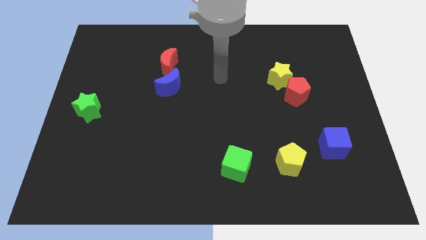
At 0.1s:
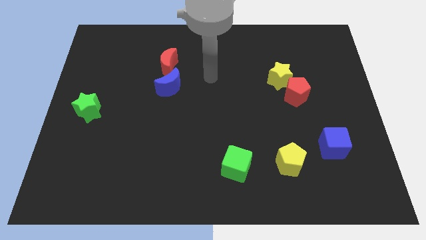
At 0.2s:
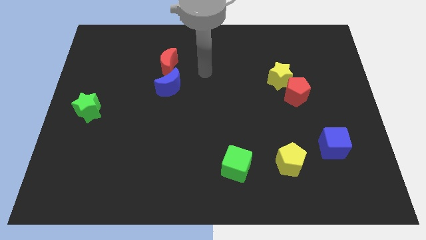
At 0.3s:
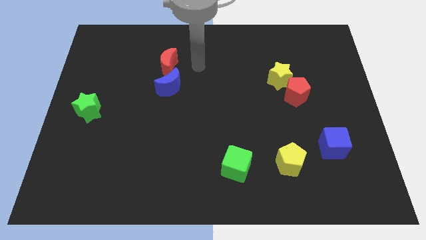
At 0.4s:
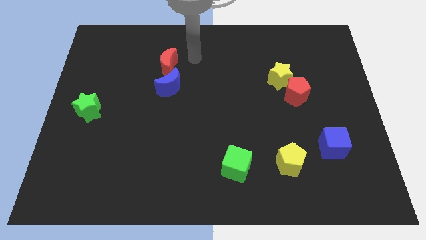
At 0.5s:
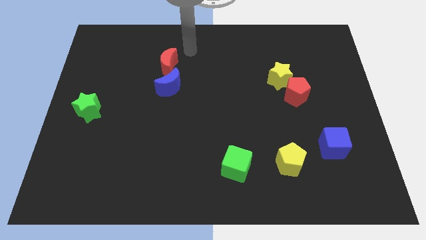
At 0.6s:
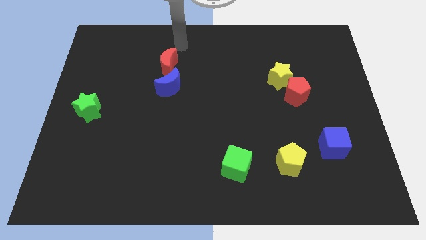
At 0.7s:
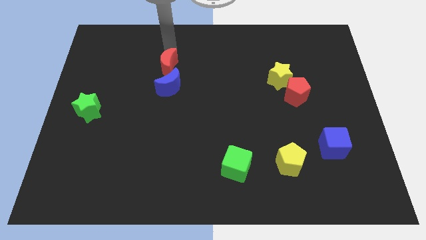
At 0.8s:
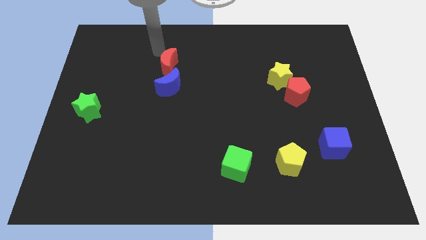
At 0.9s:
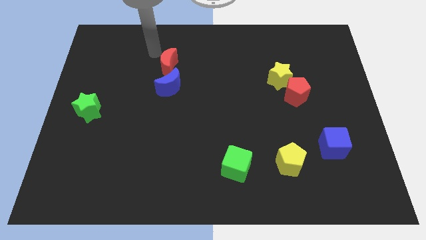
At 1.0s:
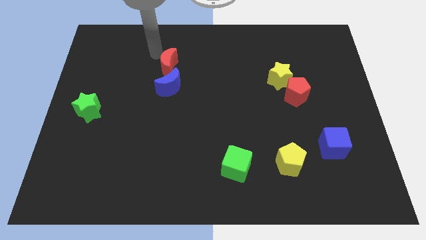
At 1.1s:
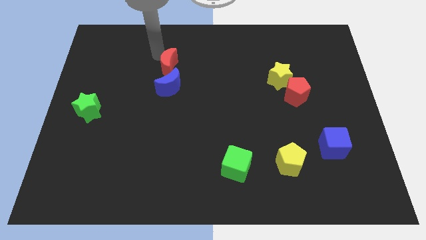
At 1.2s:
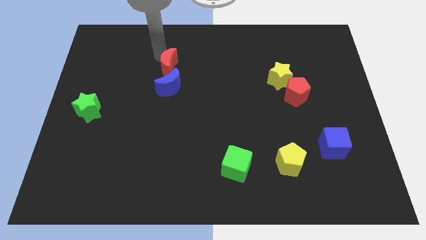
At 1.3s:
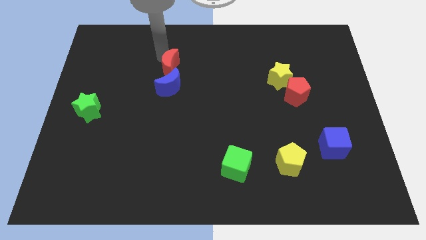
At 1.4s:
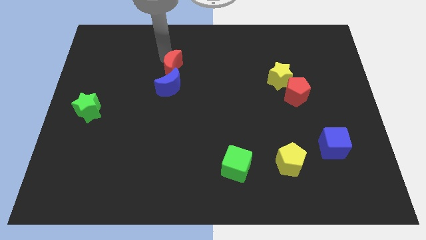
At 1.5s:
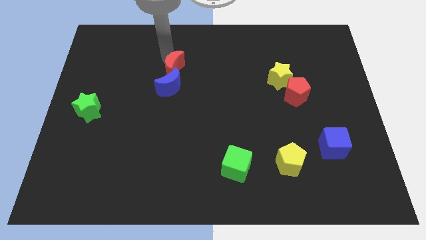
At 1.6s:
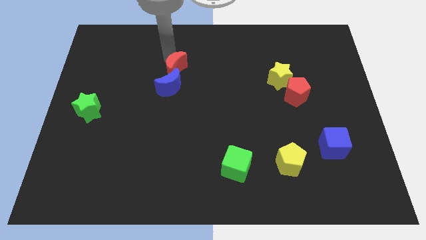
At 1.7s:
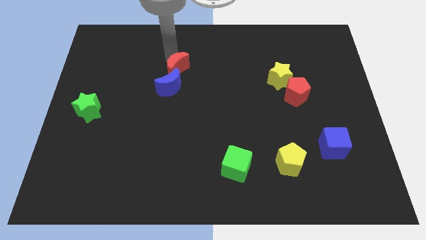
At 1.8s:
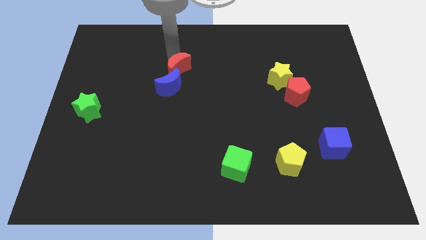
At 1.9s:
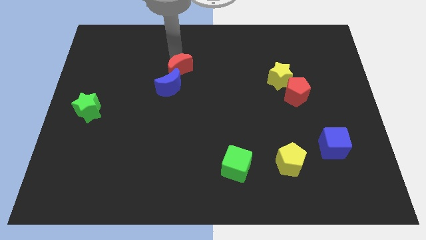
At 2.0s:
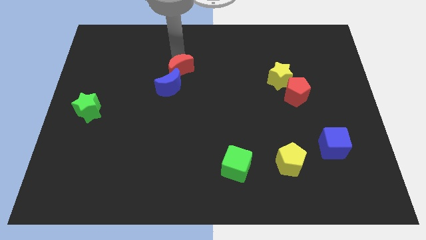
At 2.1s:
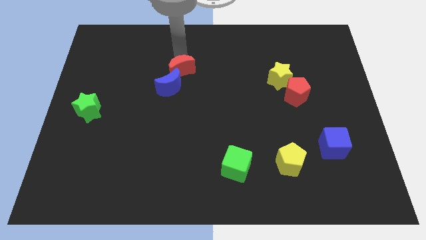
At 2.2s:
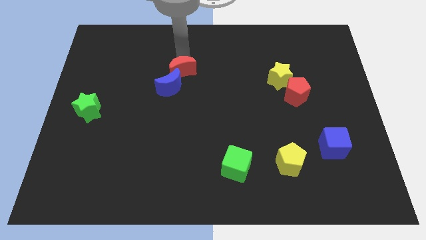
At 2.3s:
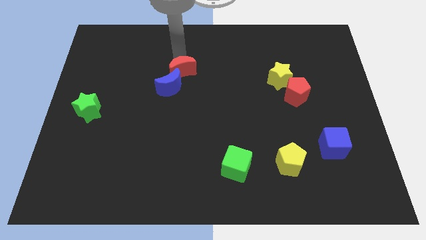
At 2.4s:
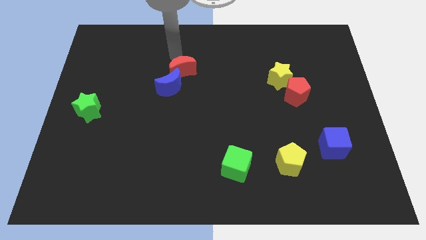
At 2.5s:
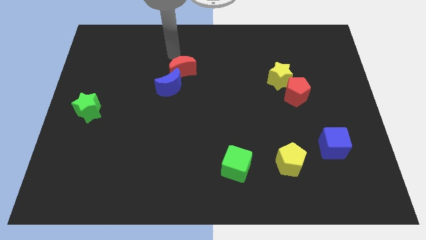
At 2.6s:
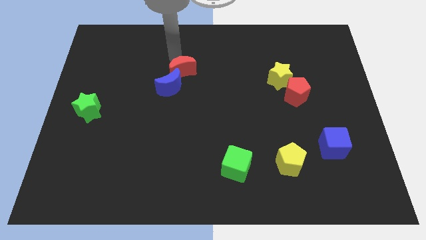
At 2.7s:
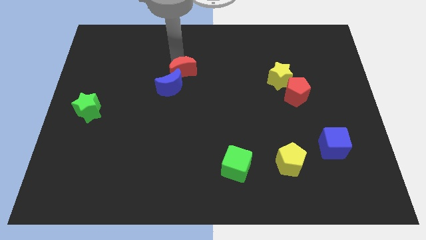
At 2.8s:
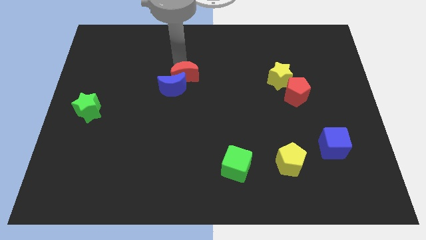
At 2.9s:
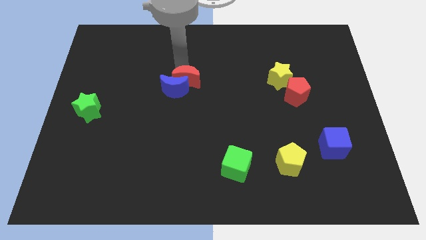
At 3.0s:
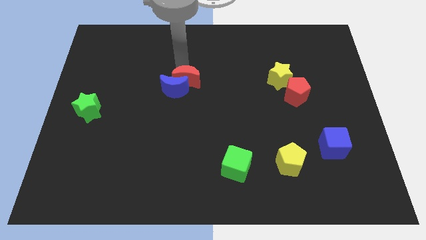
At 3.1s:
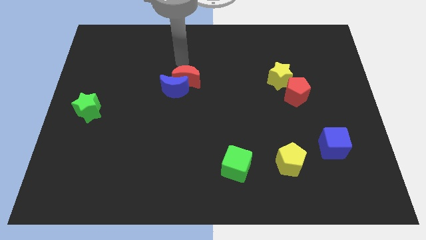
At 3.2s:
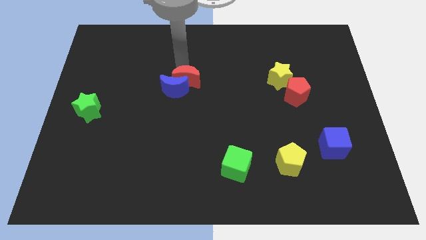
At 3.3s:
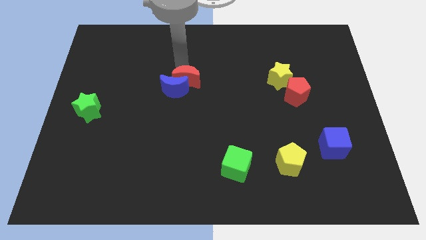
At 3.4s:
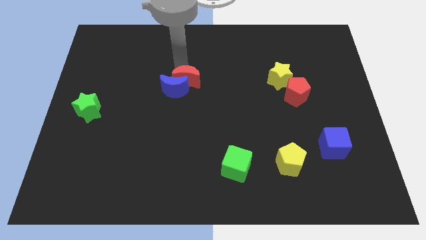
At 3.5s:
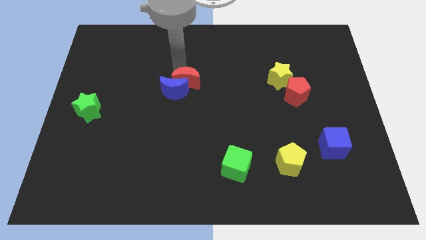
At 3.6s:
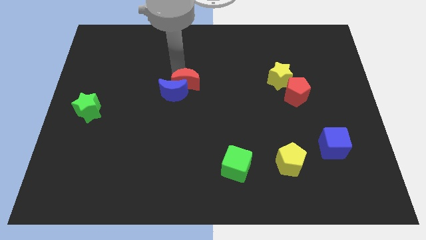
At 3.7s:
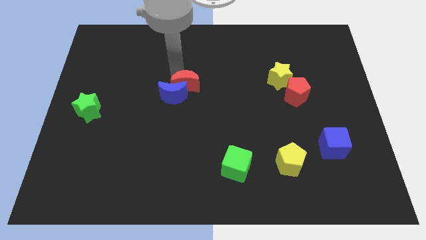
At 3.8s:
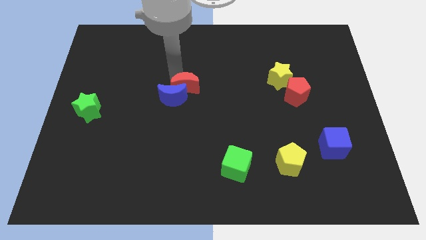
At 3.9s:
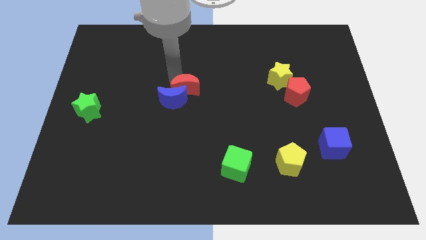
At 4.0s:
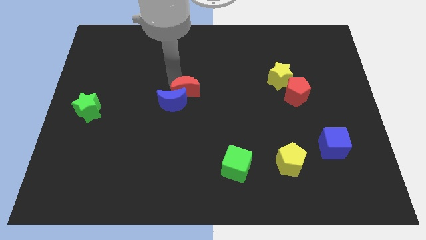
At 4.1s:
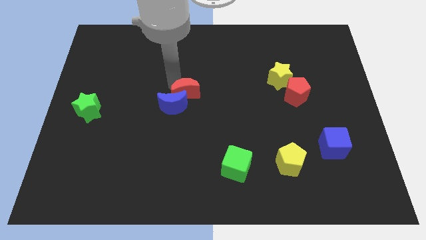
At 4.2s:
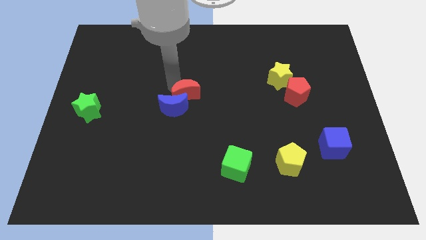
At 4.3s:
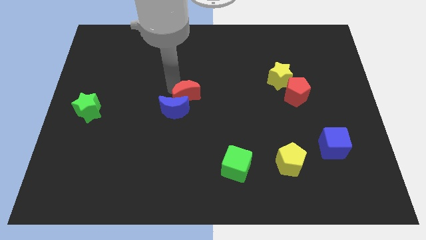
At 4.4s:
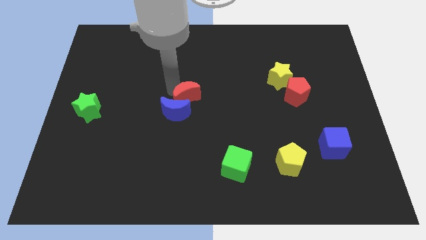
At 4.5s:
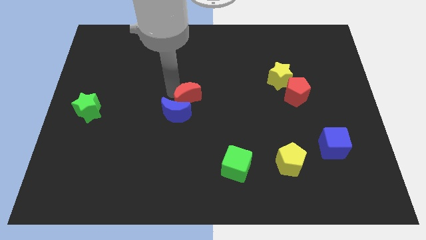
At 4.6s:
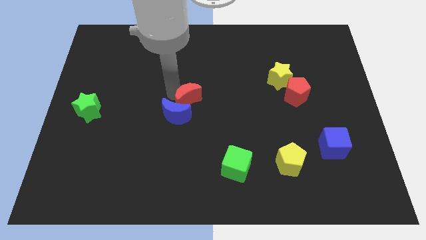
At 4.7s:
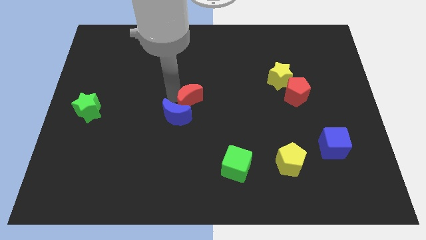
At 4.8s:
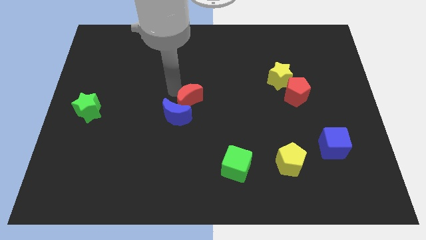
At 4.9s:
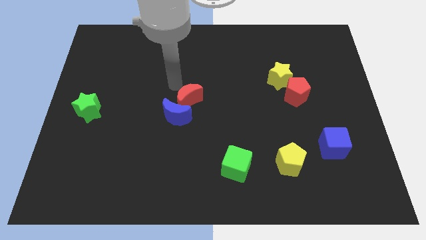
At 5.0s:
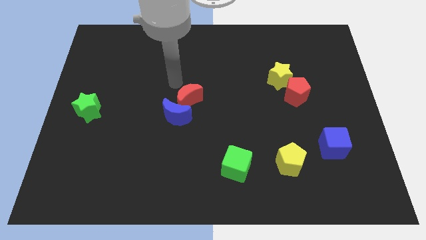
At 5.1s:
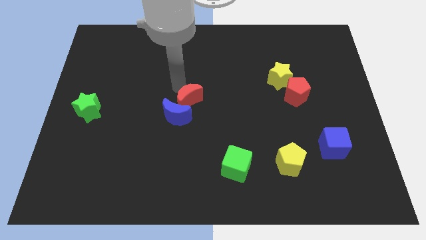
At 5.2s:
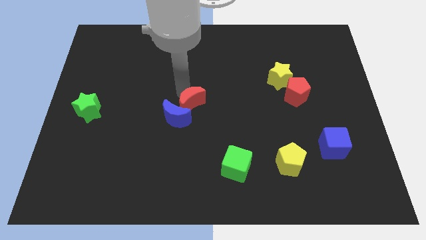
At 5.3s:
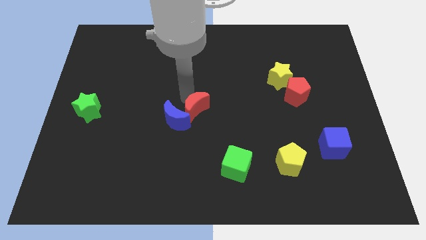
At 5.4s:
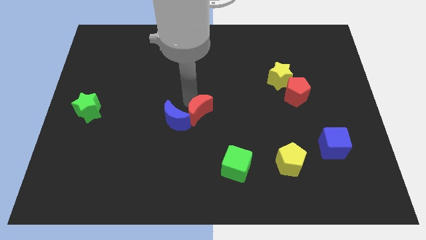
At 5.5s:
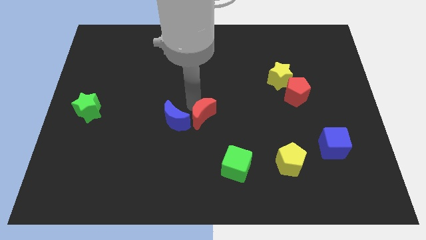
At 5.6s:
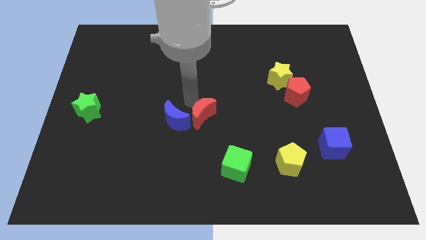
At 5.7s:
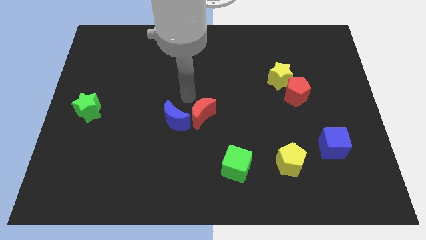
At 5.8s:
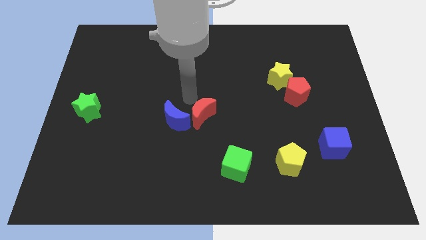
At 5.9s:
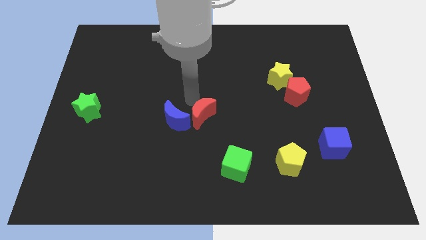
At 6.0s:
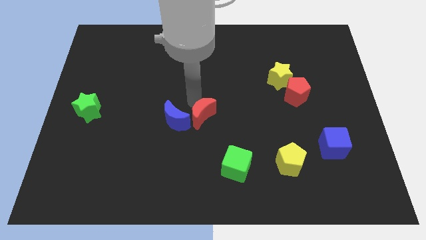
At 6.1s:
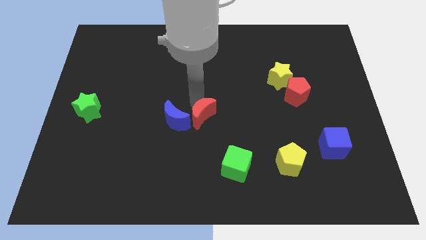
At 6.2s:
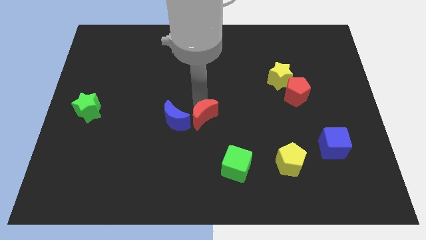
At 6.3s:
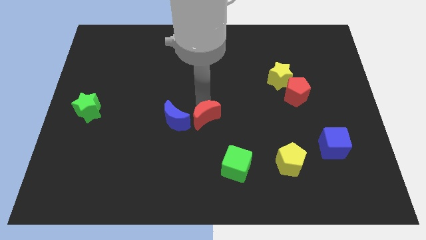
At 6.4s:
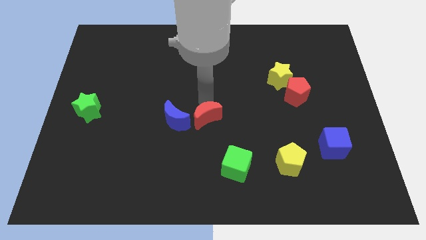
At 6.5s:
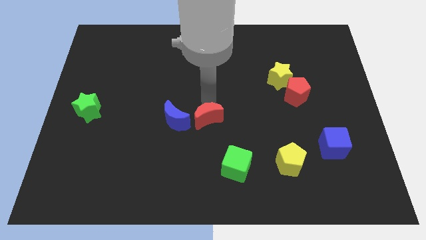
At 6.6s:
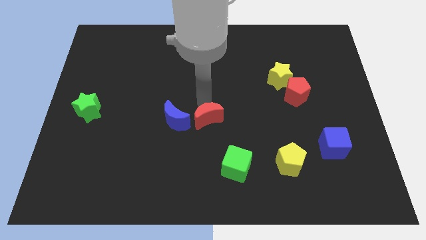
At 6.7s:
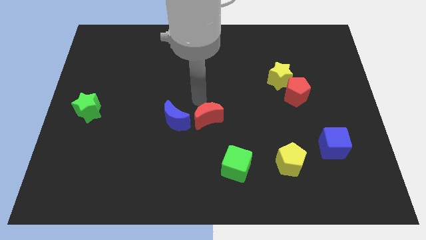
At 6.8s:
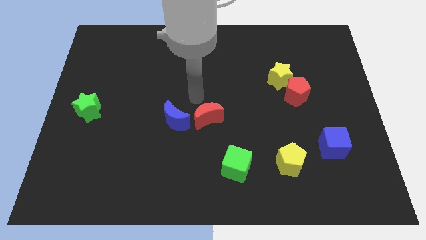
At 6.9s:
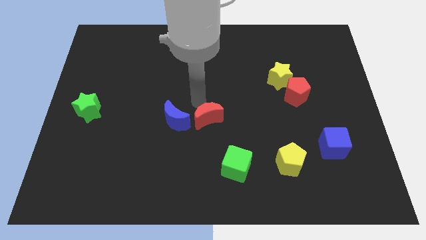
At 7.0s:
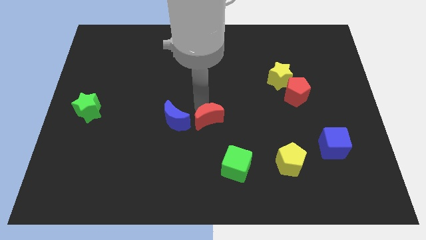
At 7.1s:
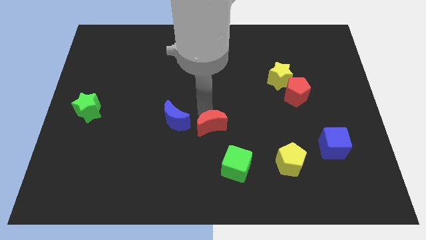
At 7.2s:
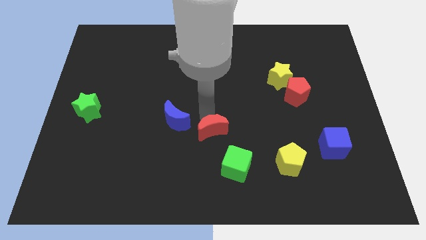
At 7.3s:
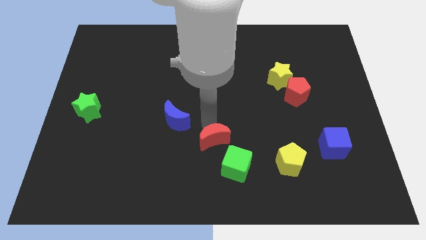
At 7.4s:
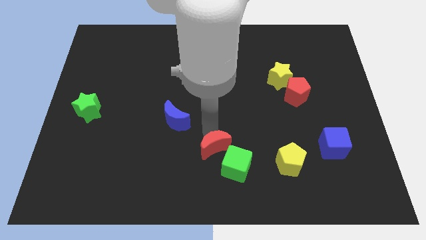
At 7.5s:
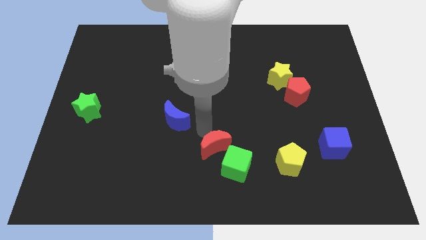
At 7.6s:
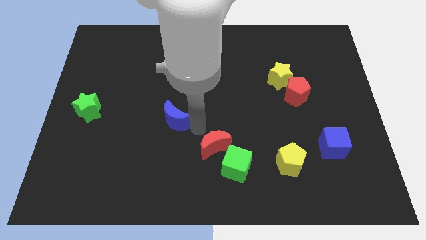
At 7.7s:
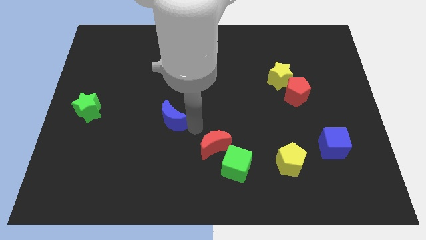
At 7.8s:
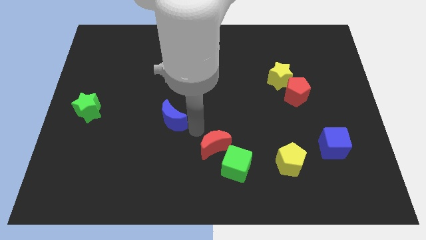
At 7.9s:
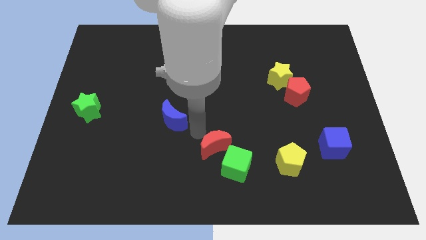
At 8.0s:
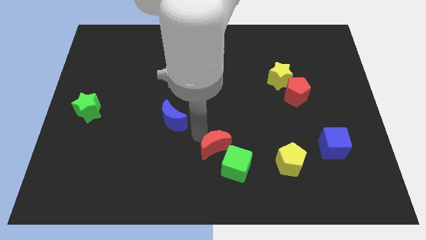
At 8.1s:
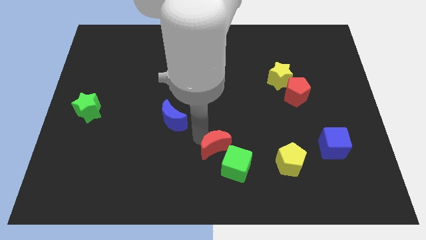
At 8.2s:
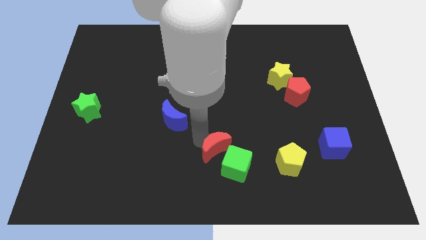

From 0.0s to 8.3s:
move the red moon next to the green cube
